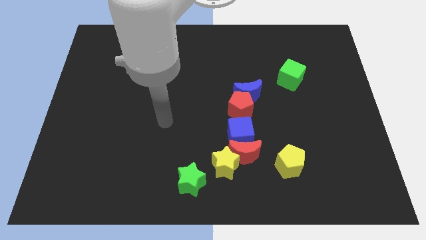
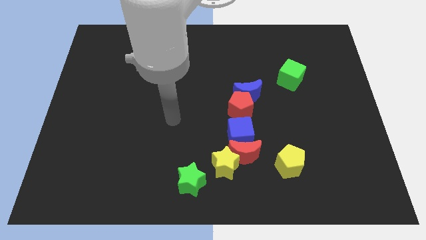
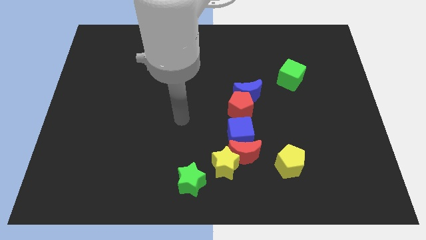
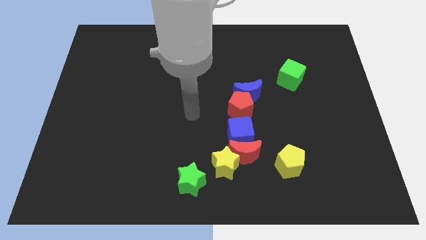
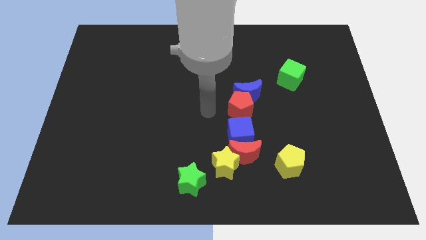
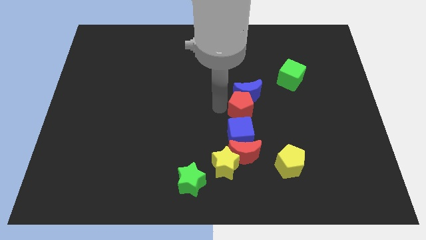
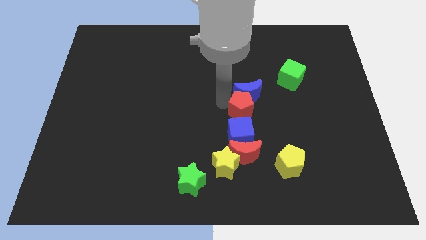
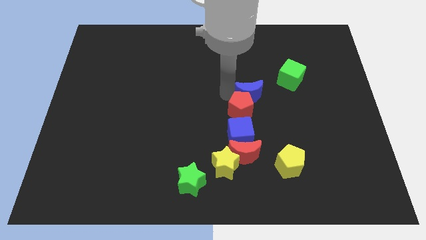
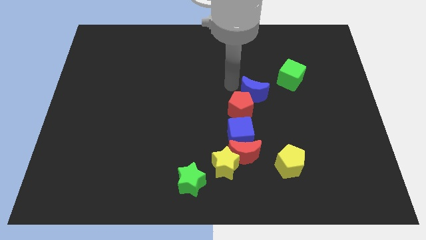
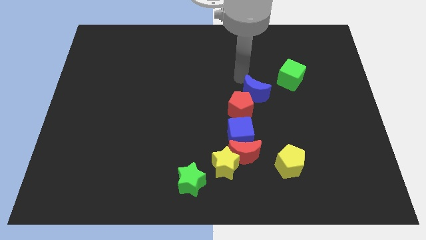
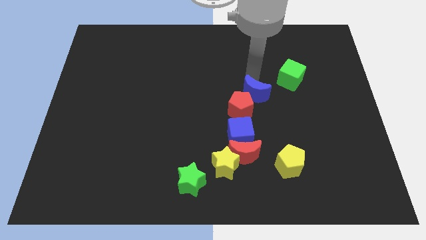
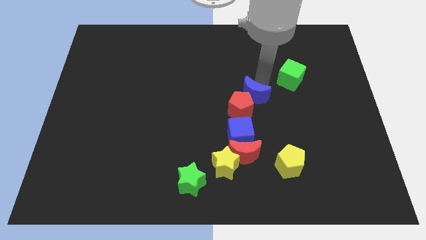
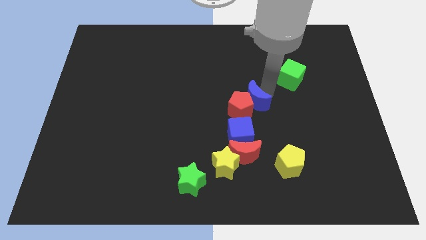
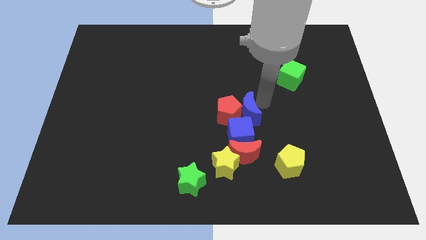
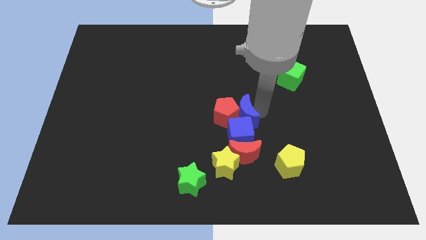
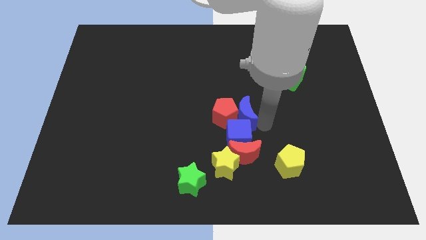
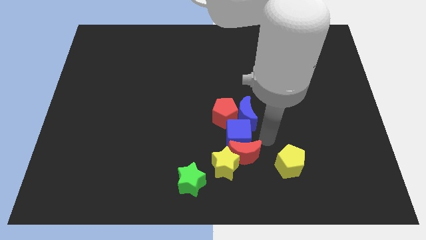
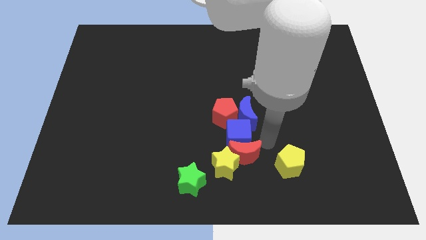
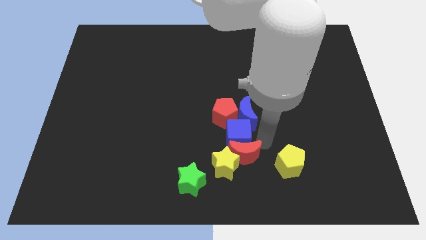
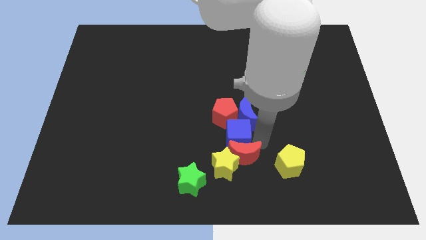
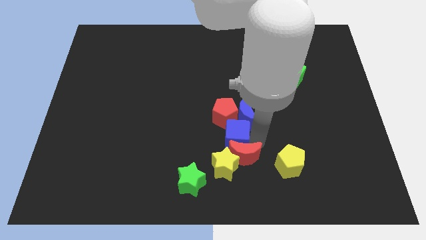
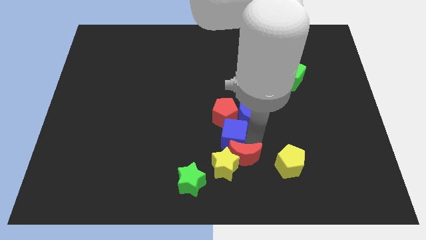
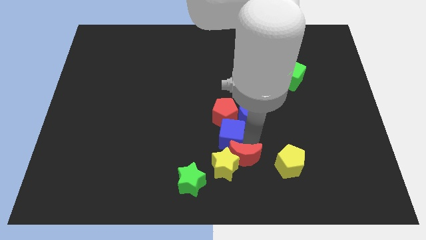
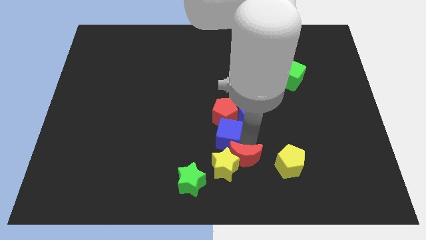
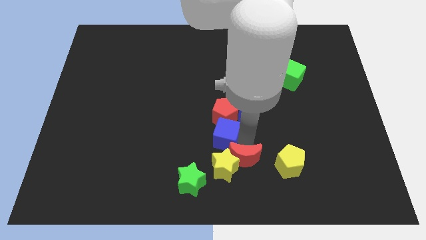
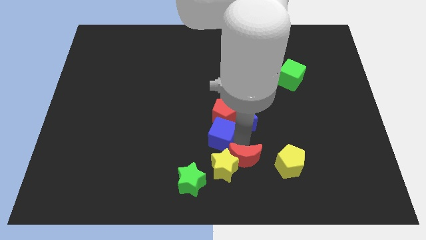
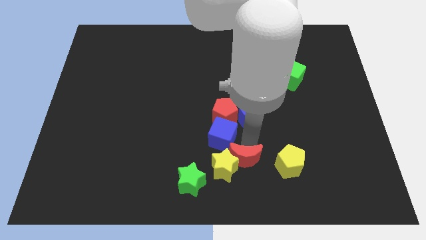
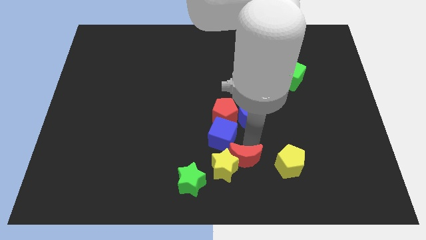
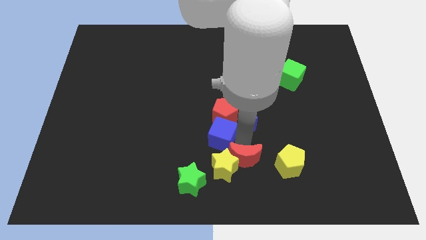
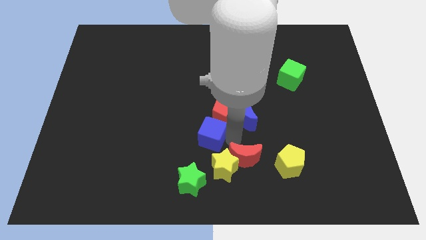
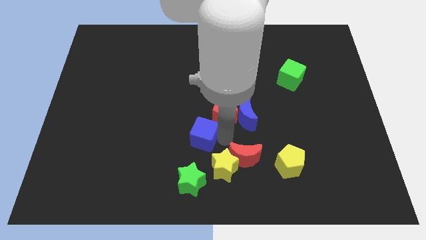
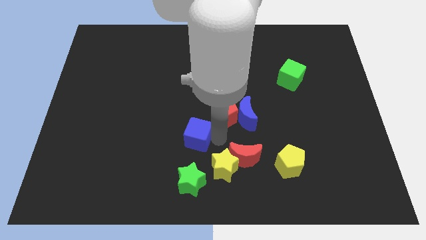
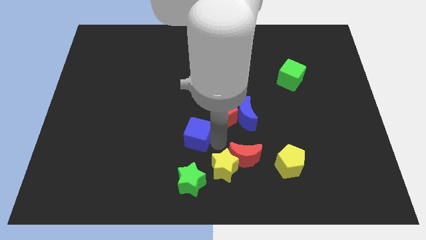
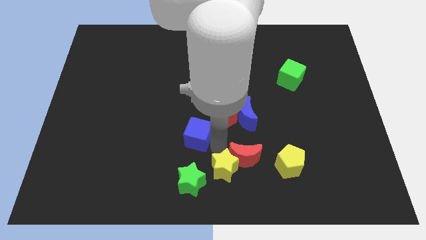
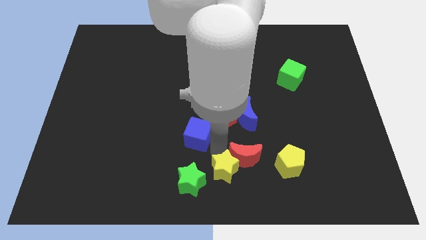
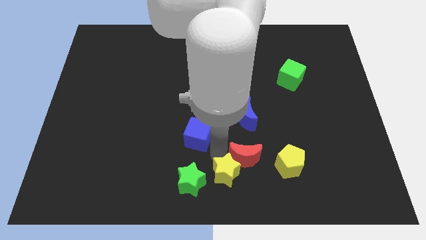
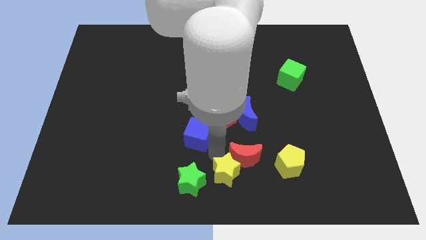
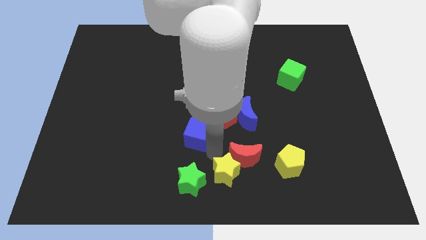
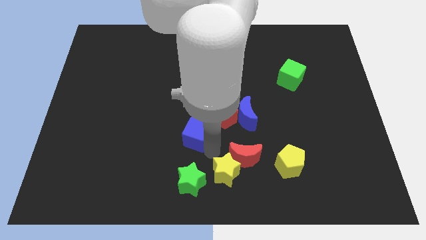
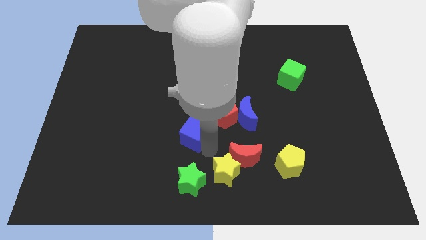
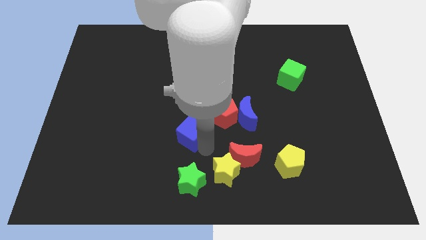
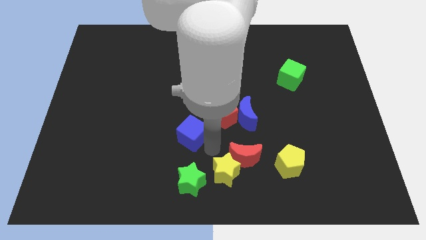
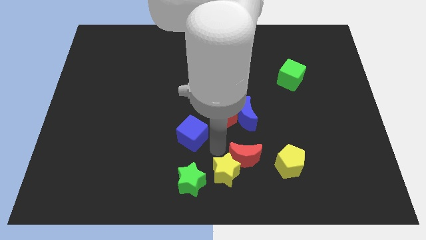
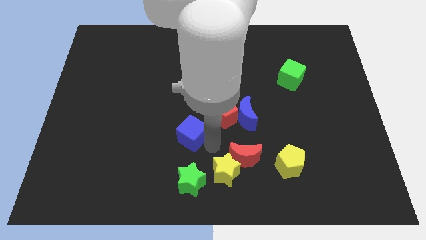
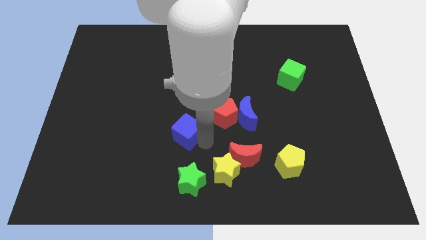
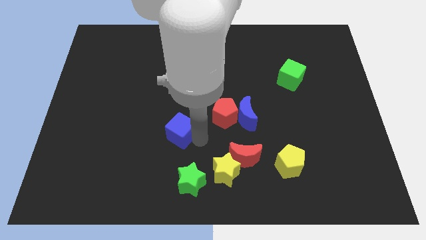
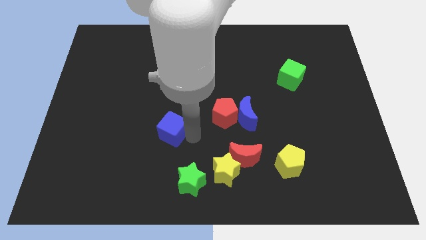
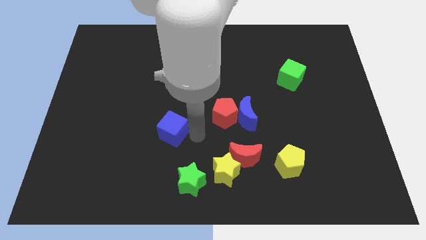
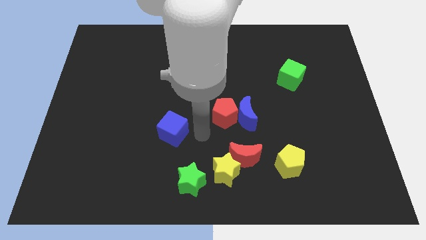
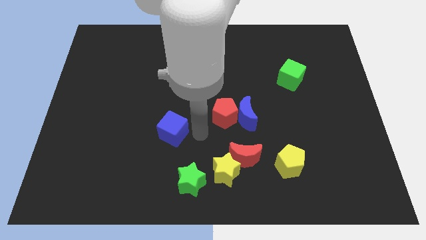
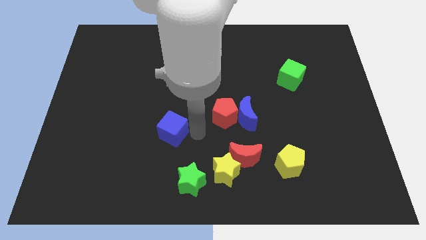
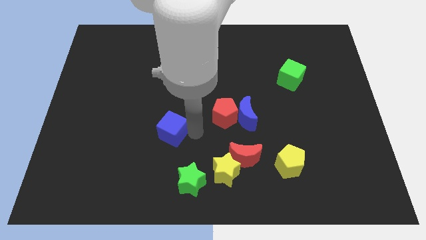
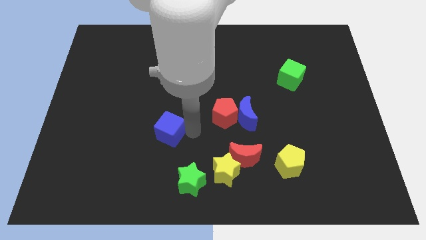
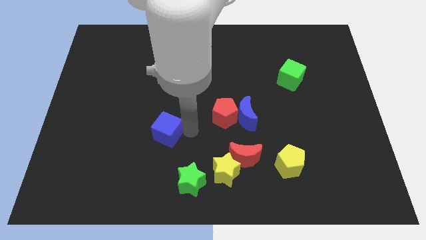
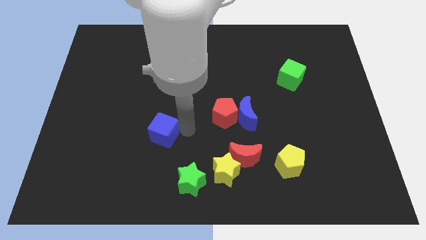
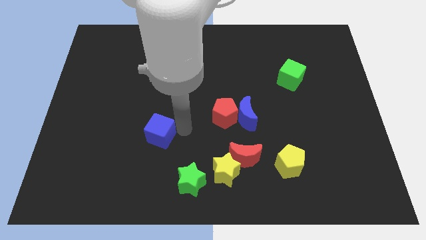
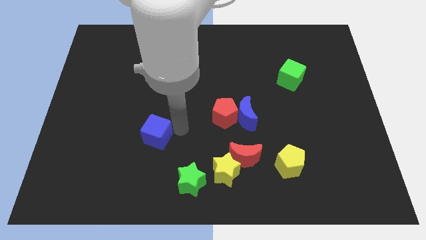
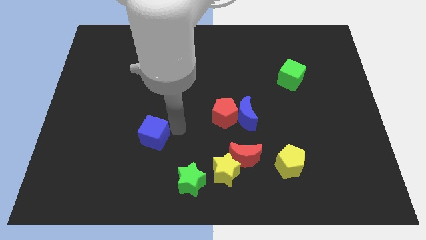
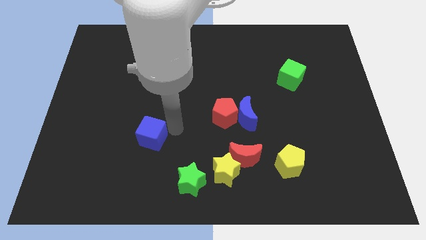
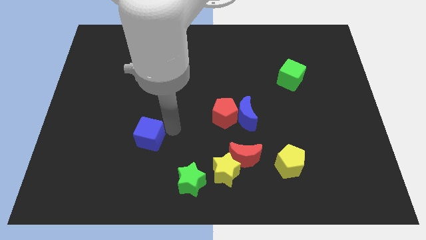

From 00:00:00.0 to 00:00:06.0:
move the blue cube left

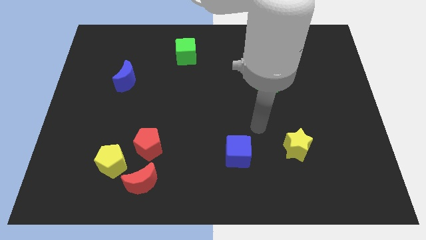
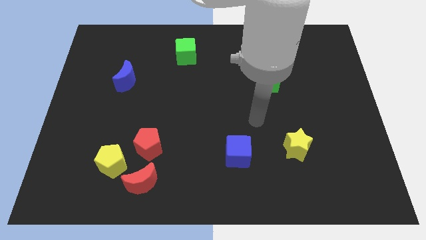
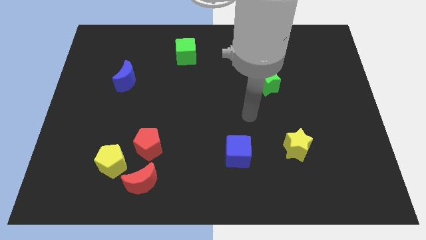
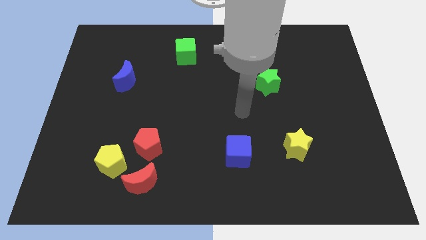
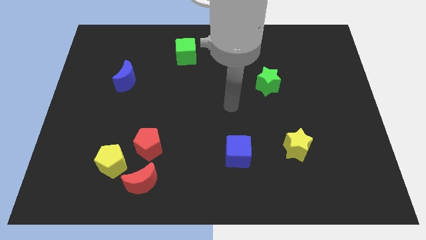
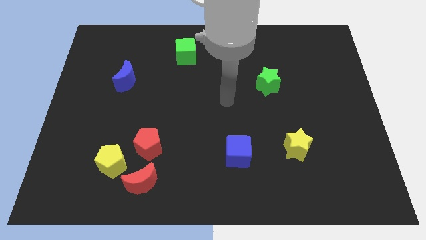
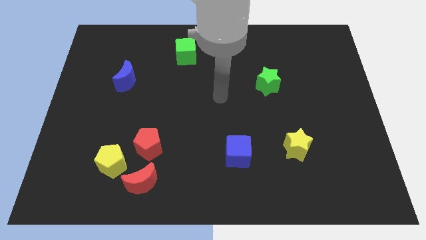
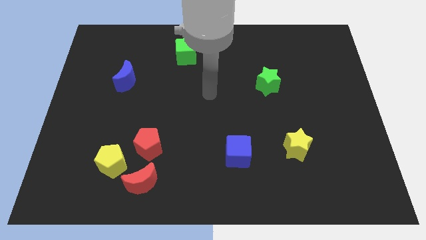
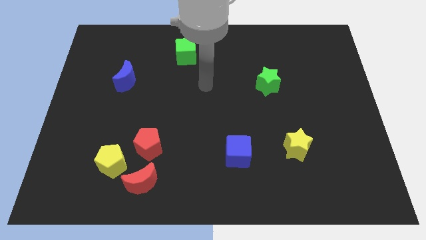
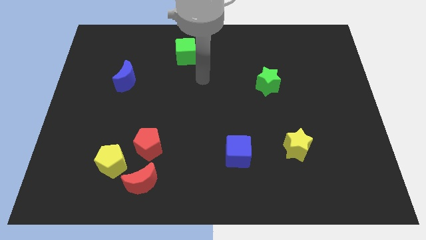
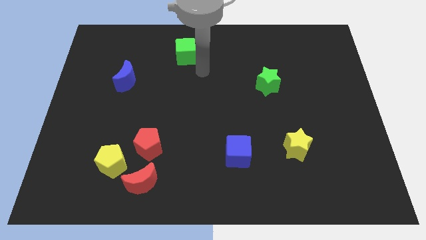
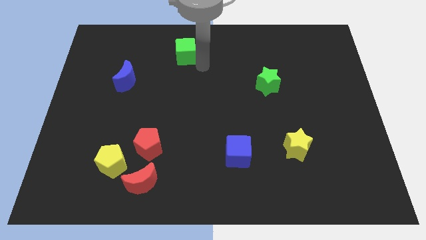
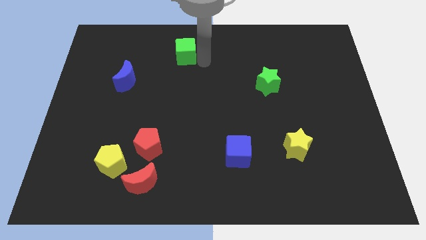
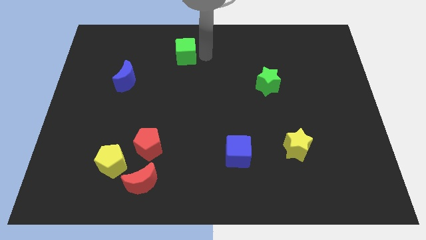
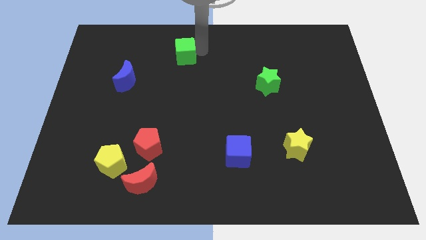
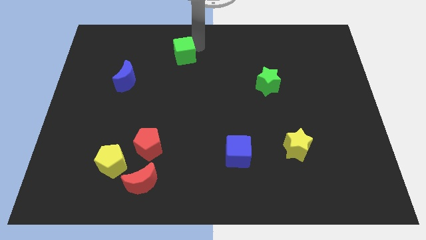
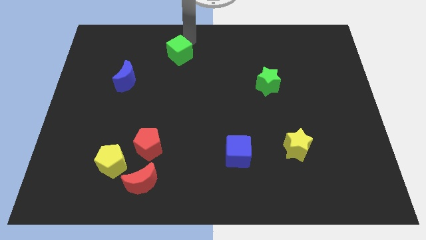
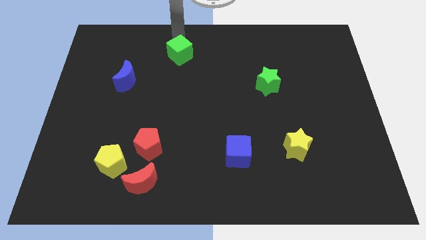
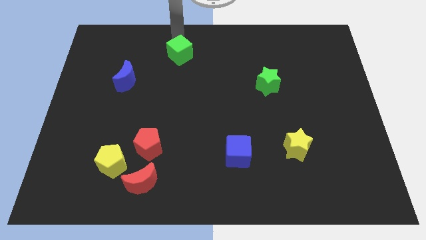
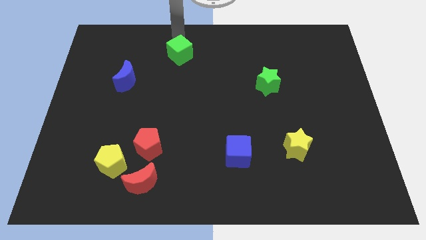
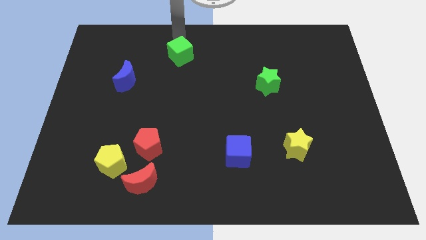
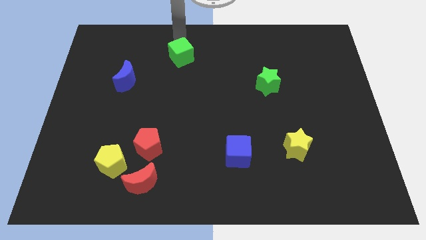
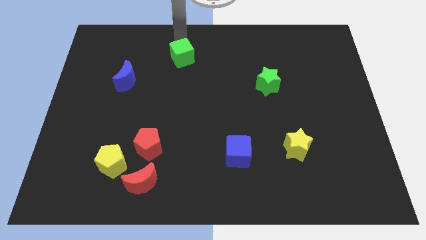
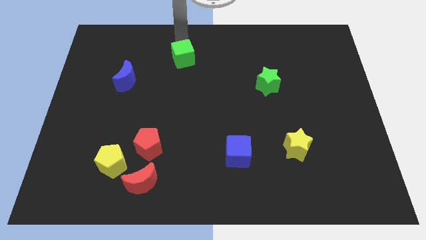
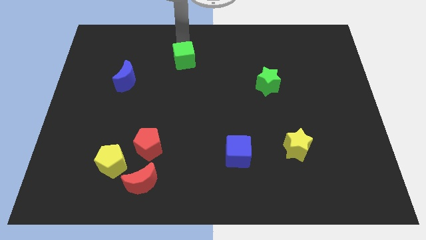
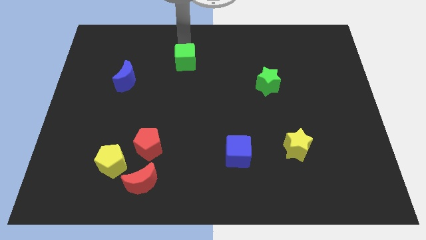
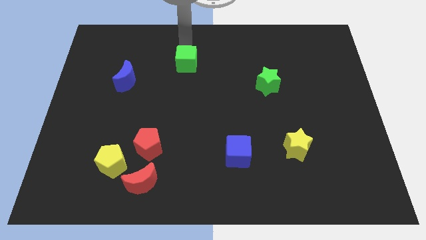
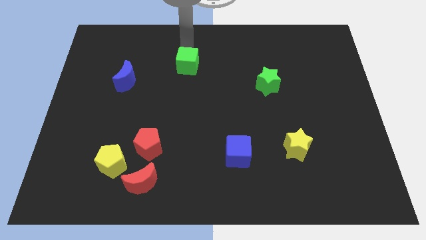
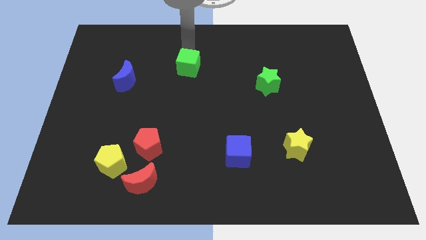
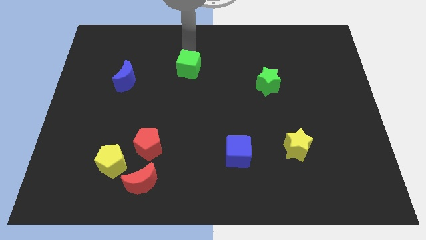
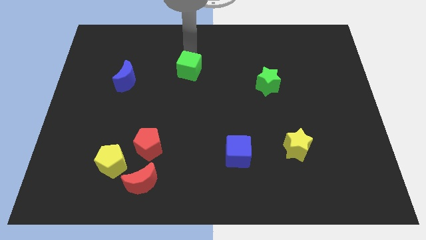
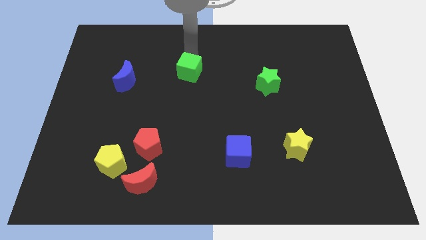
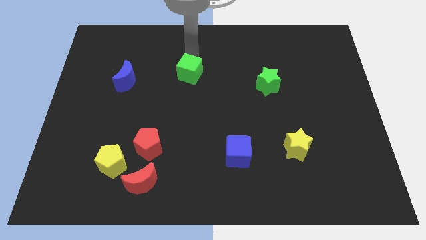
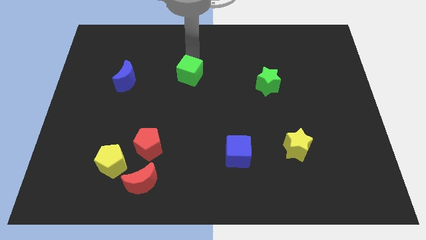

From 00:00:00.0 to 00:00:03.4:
slide the green cube slightly down
